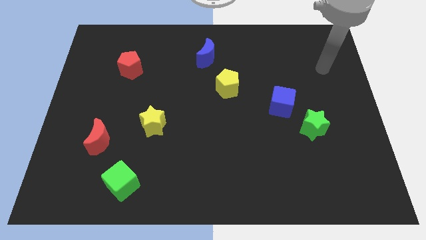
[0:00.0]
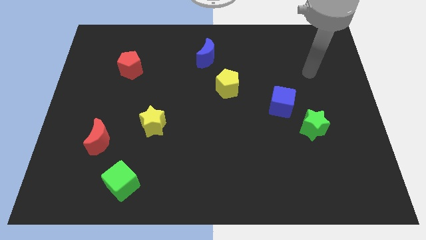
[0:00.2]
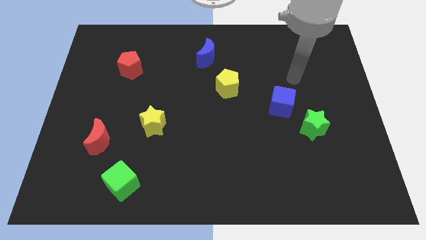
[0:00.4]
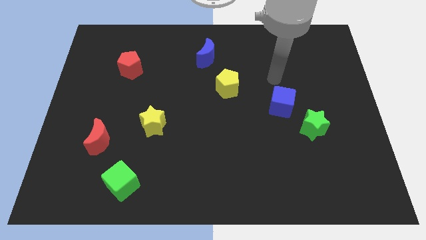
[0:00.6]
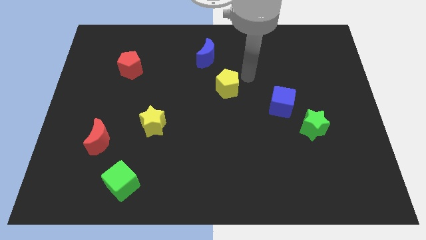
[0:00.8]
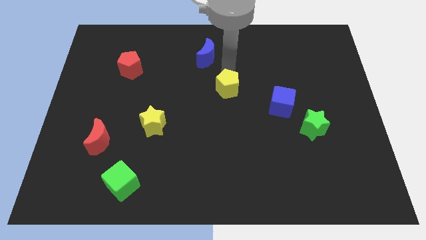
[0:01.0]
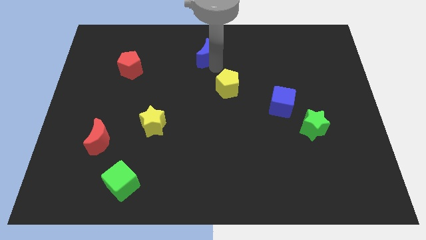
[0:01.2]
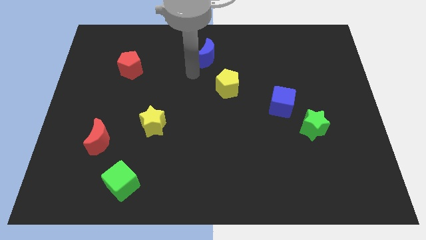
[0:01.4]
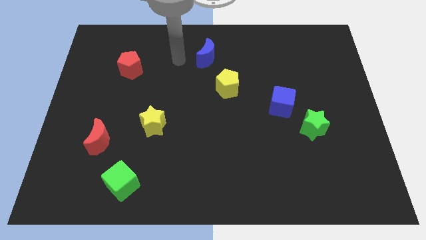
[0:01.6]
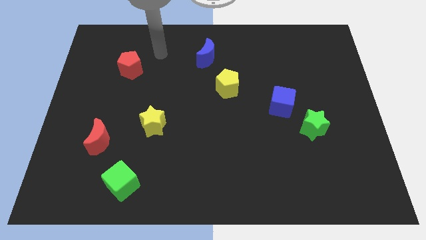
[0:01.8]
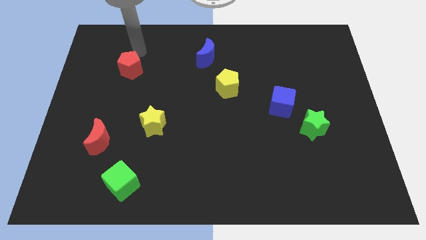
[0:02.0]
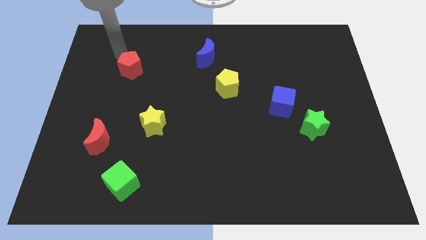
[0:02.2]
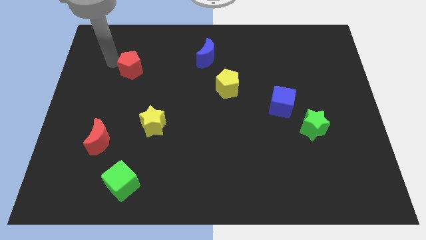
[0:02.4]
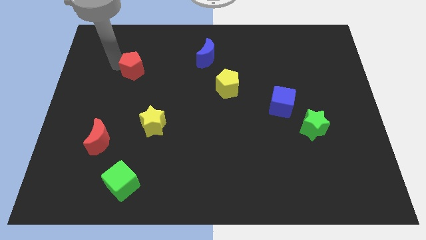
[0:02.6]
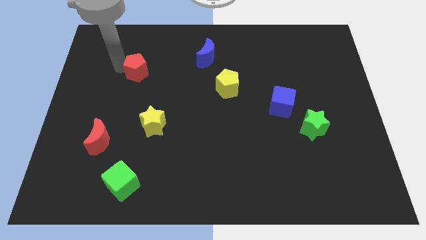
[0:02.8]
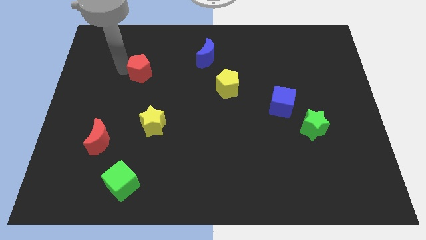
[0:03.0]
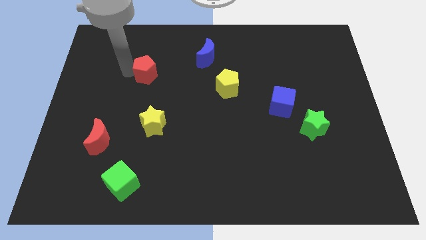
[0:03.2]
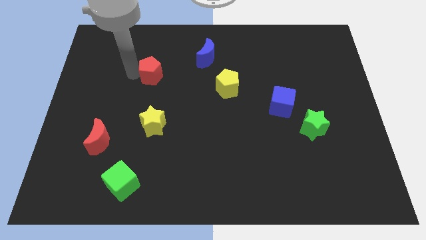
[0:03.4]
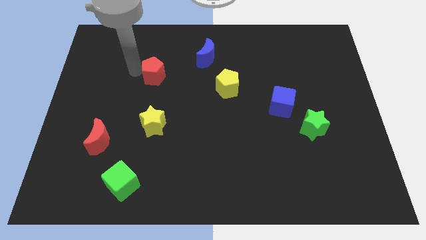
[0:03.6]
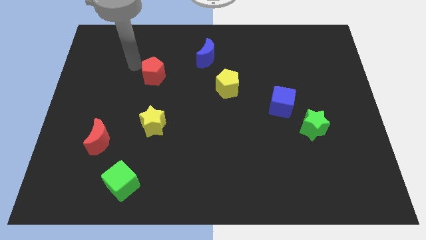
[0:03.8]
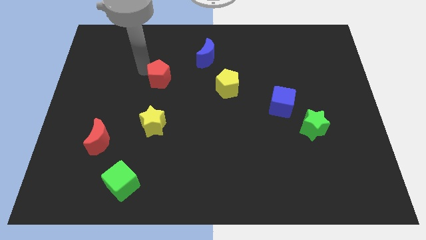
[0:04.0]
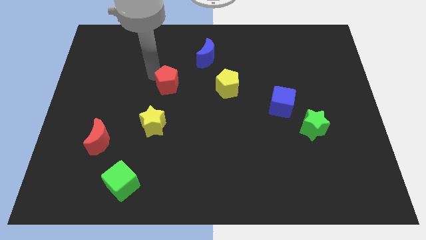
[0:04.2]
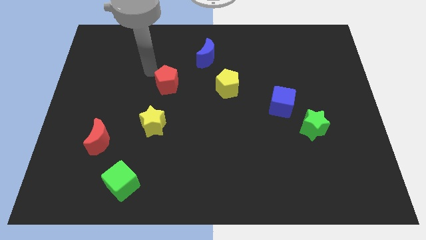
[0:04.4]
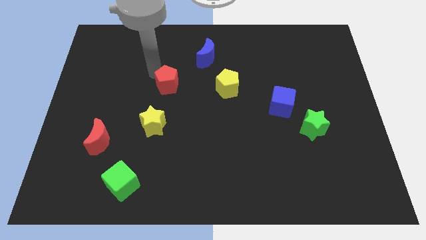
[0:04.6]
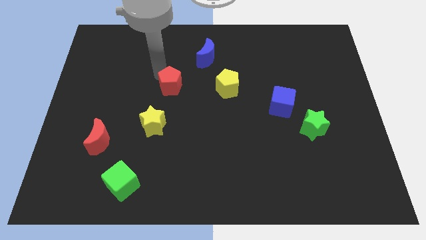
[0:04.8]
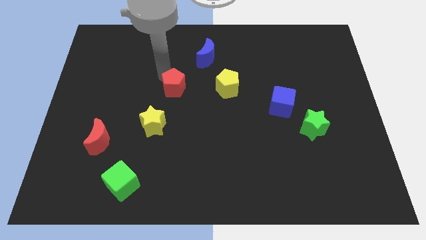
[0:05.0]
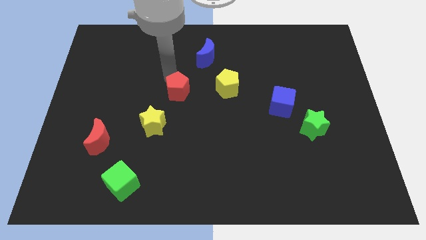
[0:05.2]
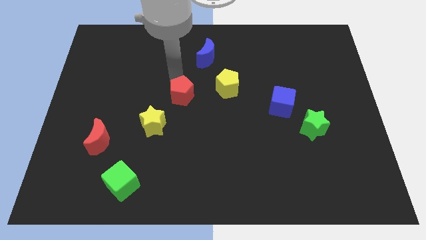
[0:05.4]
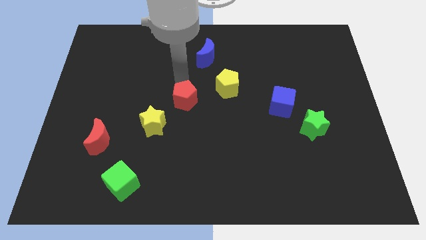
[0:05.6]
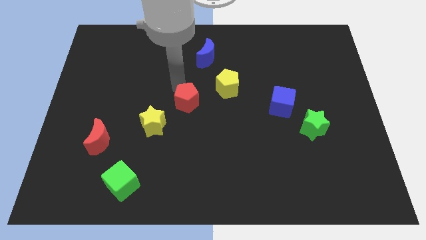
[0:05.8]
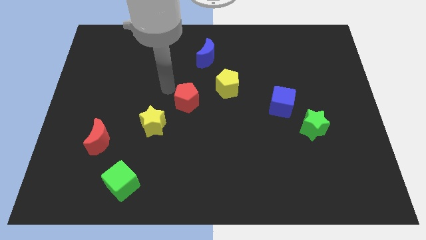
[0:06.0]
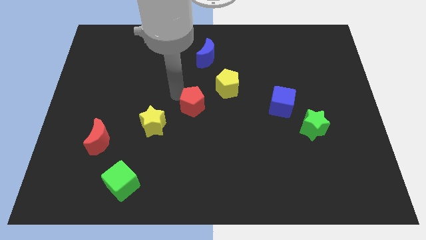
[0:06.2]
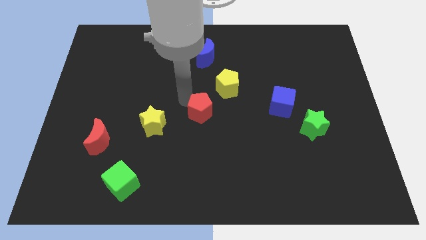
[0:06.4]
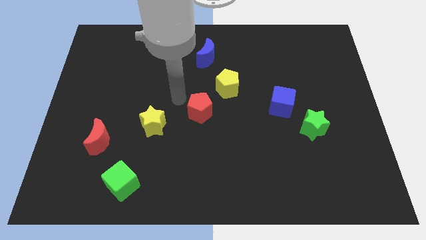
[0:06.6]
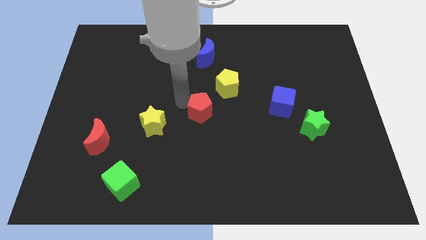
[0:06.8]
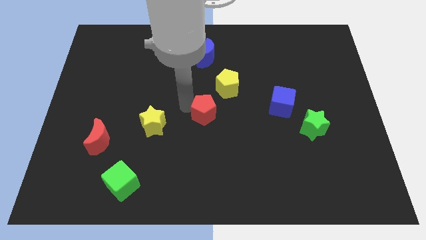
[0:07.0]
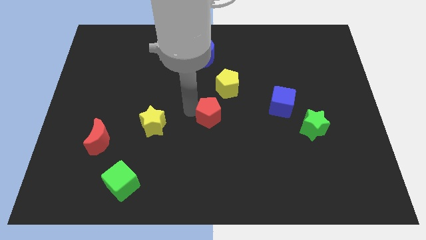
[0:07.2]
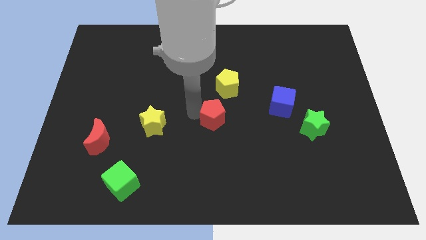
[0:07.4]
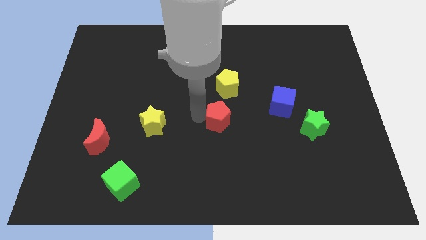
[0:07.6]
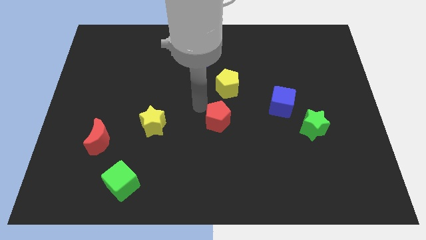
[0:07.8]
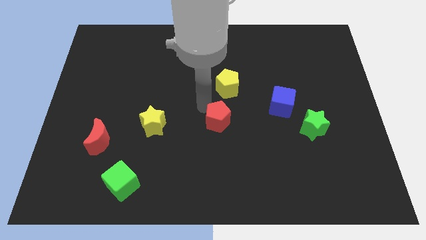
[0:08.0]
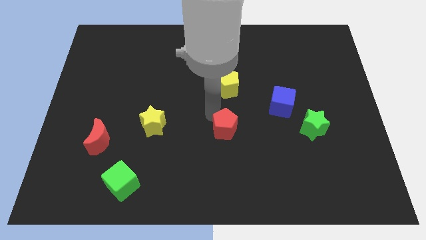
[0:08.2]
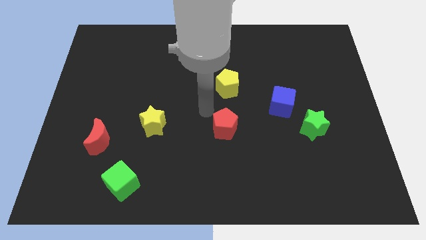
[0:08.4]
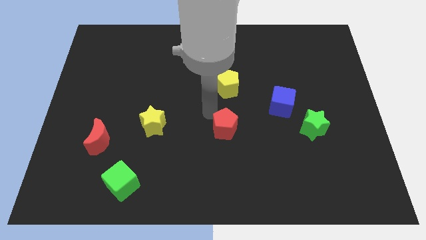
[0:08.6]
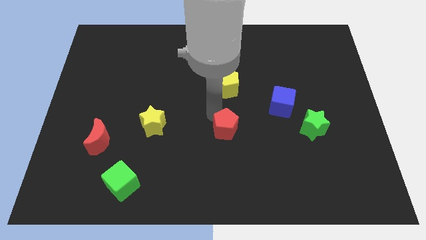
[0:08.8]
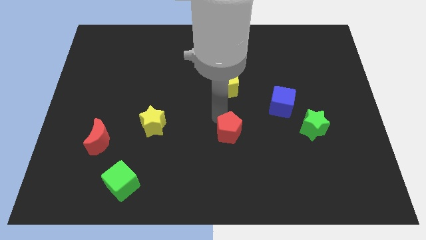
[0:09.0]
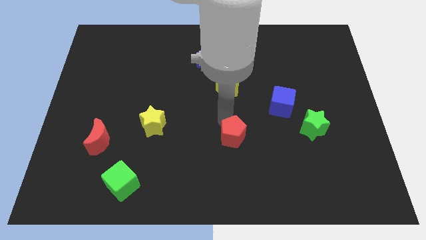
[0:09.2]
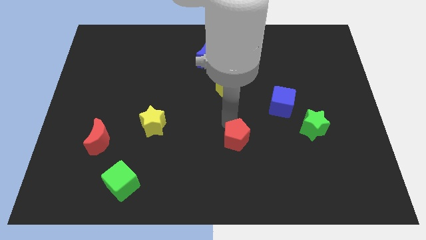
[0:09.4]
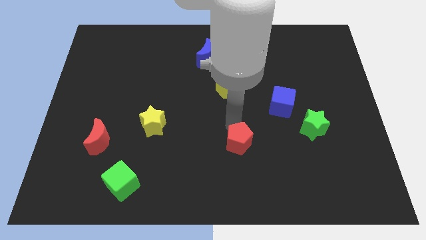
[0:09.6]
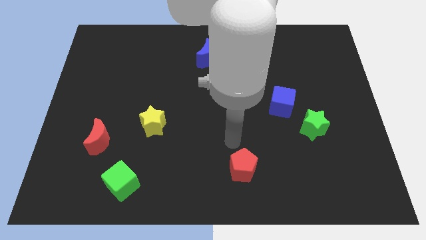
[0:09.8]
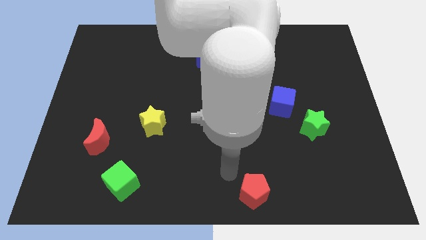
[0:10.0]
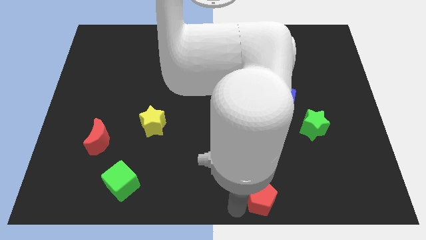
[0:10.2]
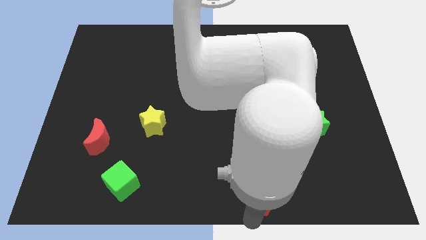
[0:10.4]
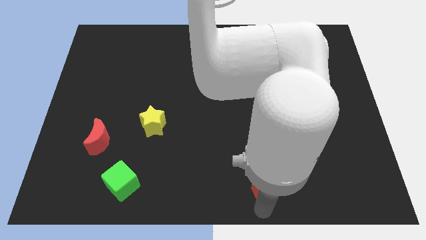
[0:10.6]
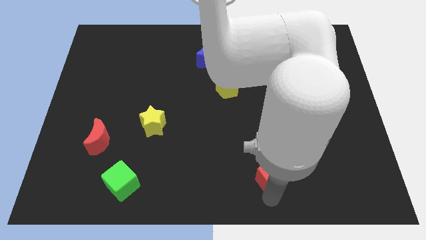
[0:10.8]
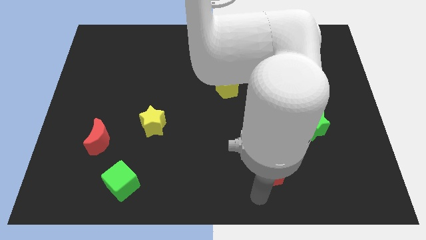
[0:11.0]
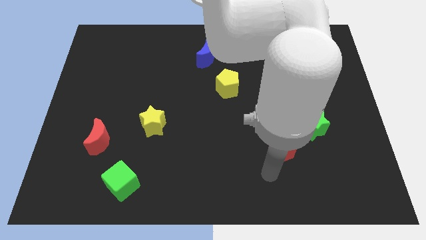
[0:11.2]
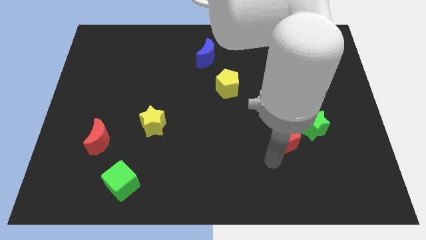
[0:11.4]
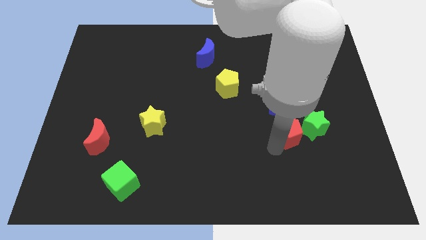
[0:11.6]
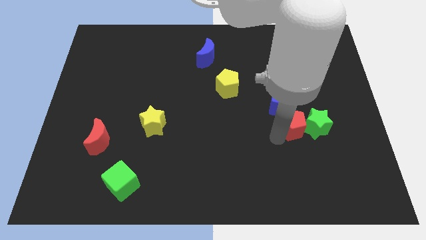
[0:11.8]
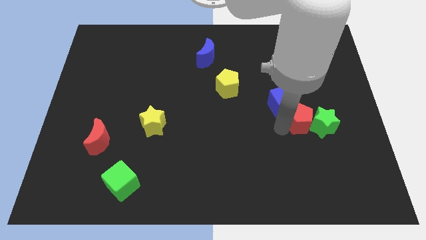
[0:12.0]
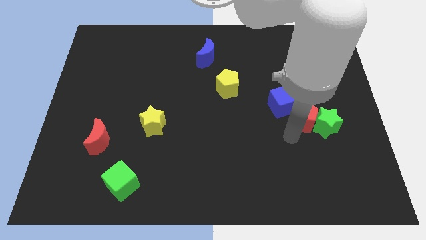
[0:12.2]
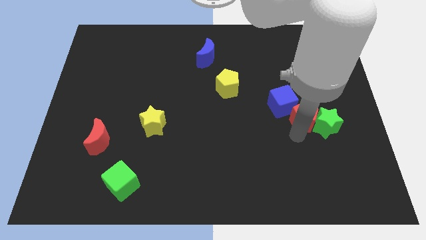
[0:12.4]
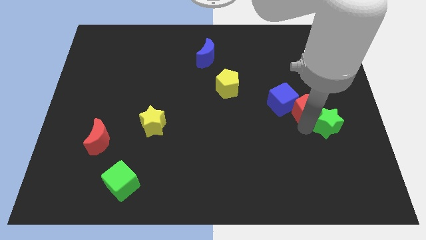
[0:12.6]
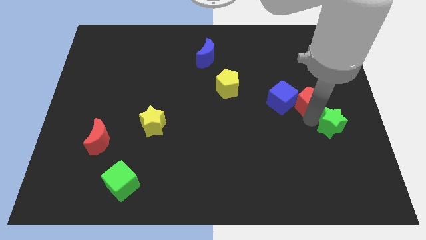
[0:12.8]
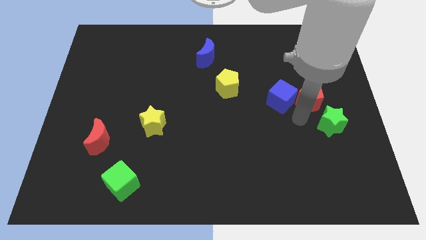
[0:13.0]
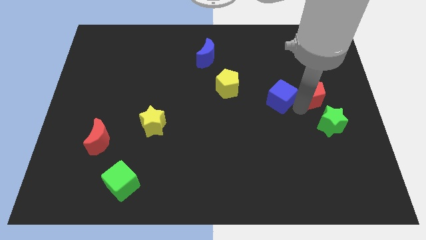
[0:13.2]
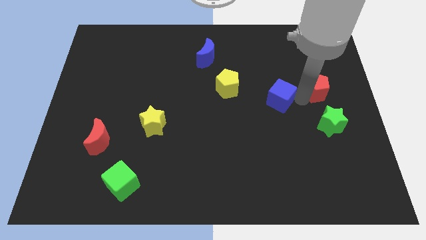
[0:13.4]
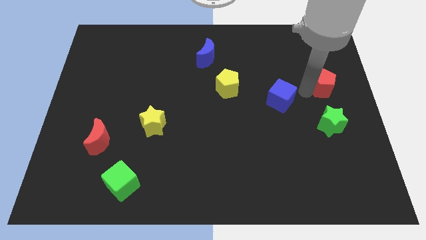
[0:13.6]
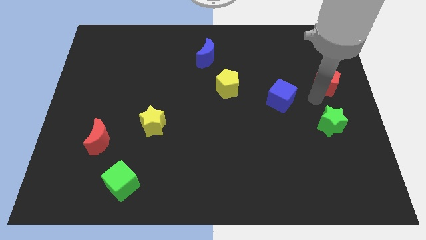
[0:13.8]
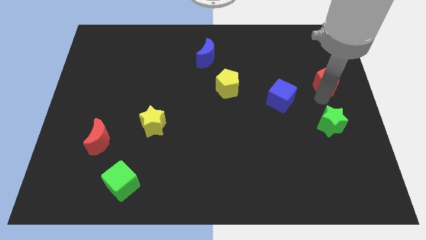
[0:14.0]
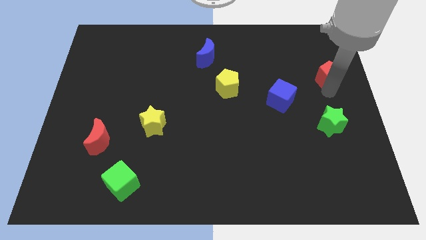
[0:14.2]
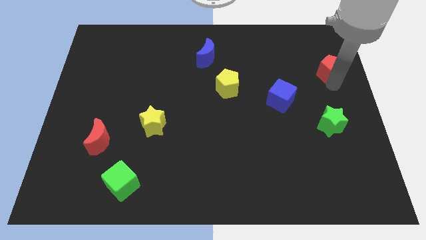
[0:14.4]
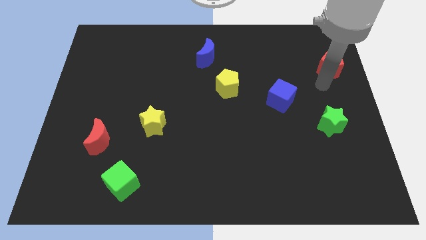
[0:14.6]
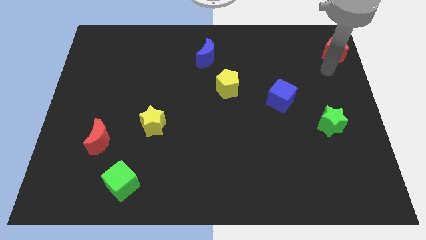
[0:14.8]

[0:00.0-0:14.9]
push the red pentagon to the top right of the board
